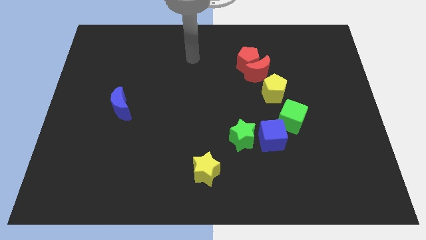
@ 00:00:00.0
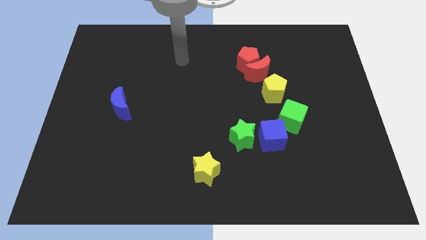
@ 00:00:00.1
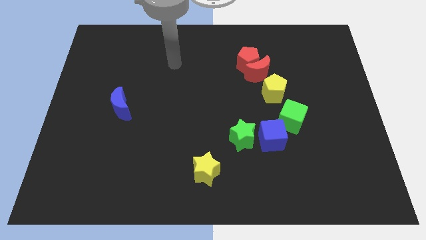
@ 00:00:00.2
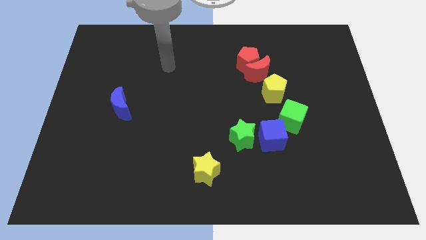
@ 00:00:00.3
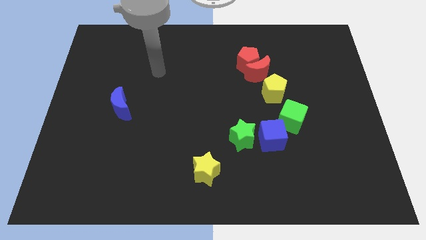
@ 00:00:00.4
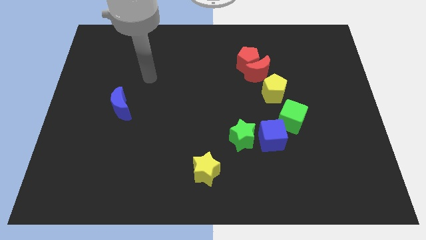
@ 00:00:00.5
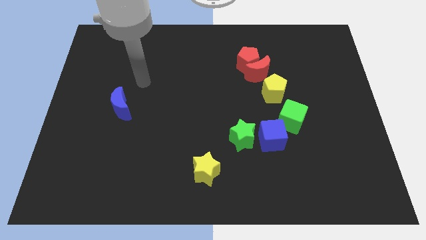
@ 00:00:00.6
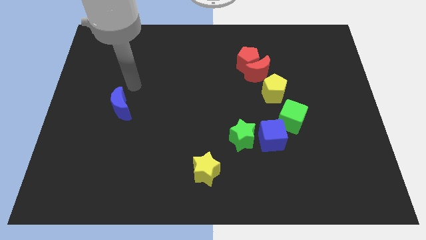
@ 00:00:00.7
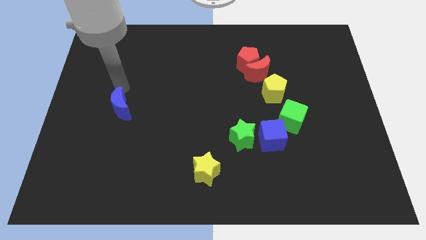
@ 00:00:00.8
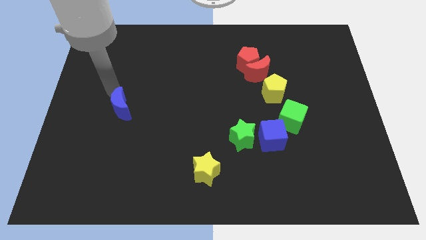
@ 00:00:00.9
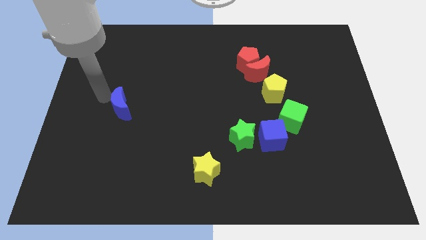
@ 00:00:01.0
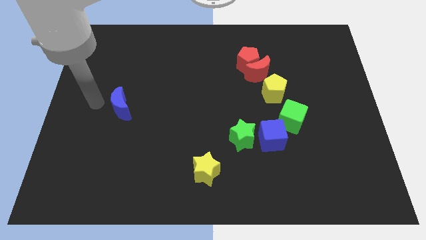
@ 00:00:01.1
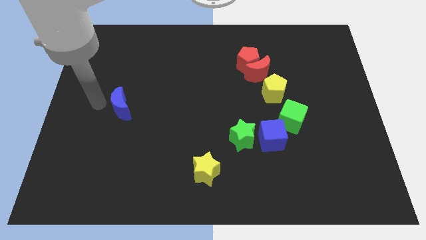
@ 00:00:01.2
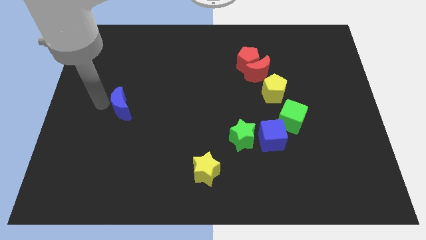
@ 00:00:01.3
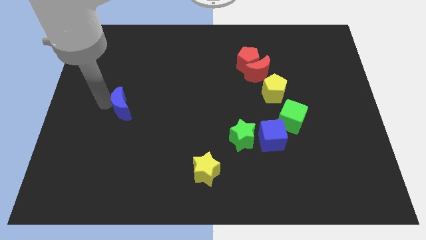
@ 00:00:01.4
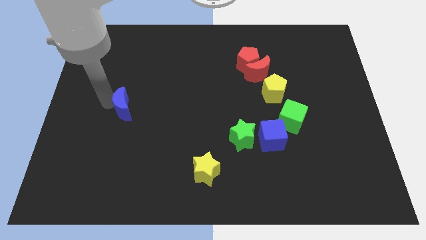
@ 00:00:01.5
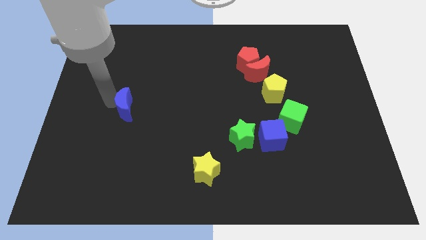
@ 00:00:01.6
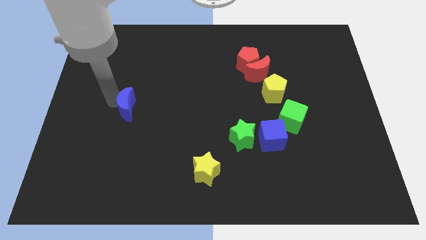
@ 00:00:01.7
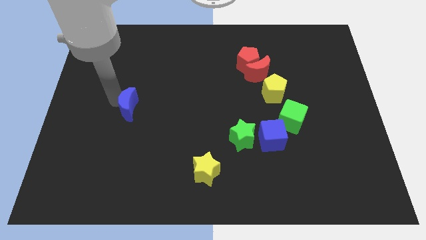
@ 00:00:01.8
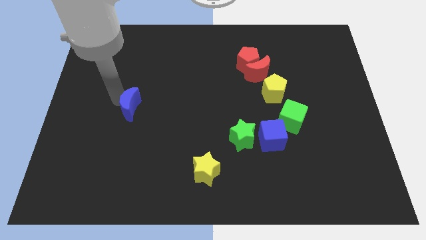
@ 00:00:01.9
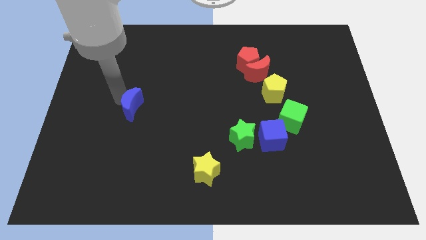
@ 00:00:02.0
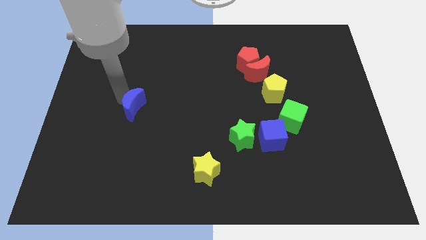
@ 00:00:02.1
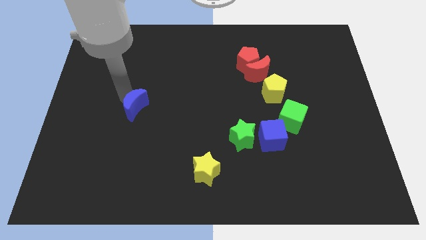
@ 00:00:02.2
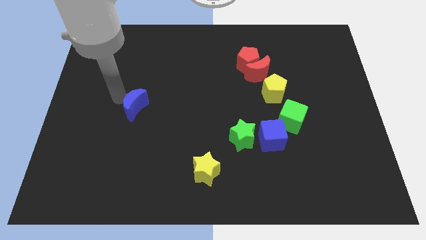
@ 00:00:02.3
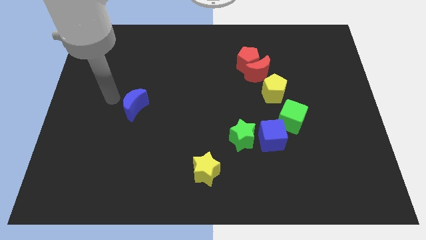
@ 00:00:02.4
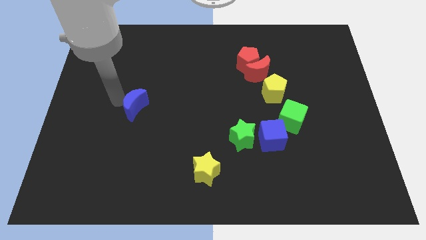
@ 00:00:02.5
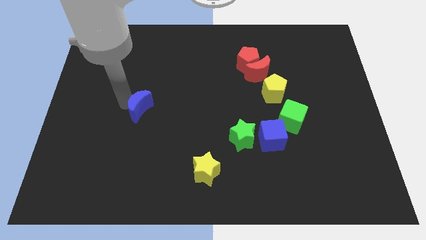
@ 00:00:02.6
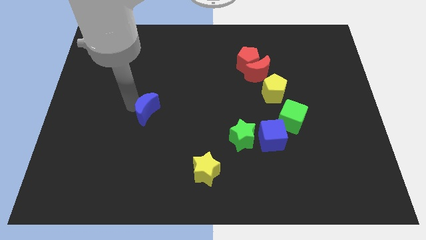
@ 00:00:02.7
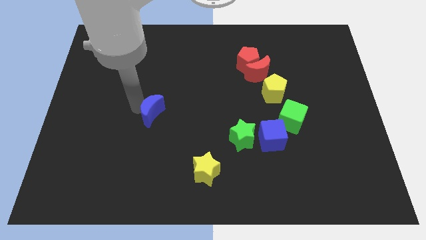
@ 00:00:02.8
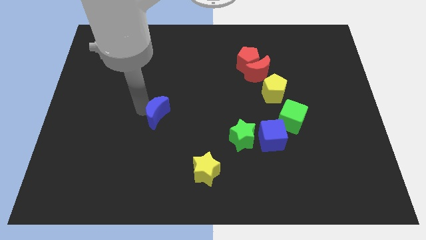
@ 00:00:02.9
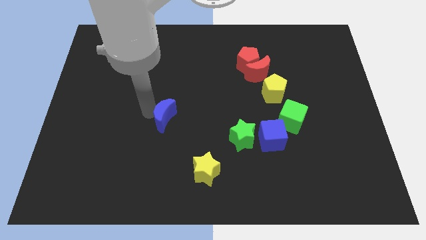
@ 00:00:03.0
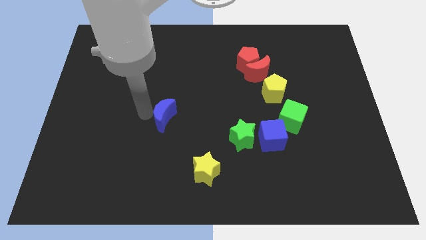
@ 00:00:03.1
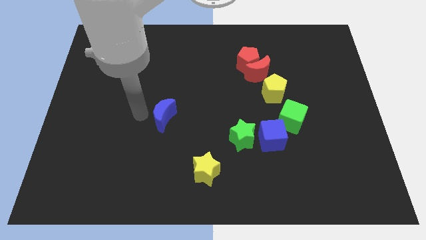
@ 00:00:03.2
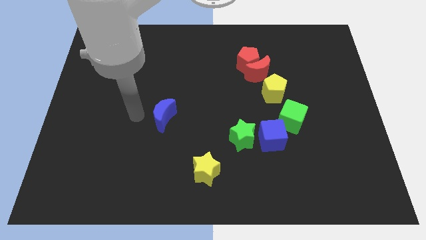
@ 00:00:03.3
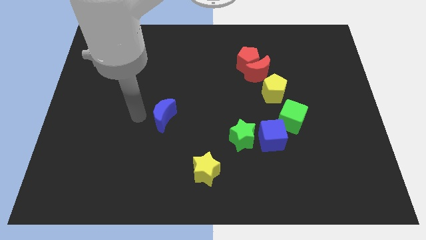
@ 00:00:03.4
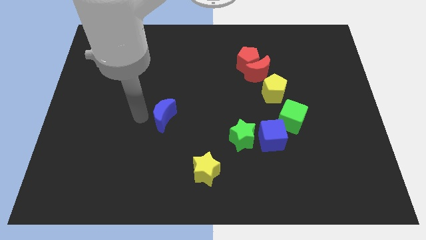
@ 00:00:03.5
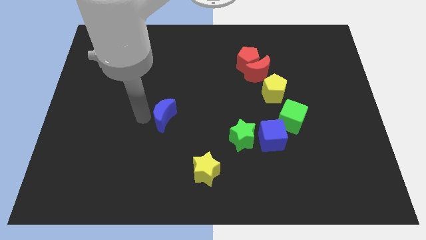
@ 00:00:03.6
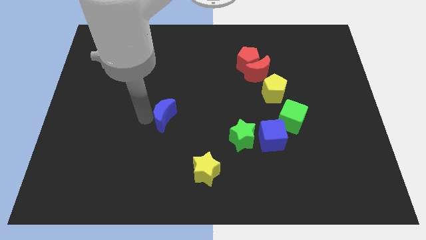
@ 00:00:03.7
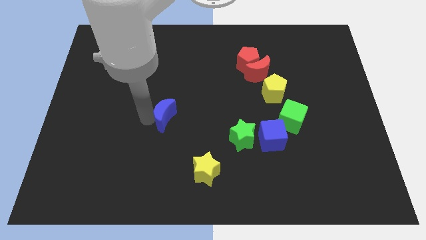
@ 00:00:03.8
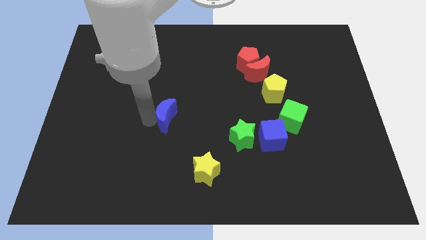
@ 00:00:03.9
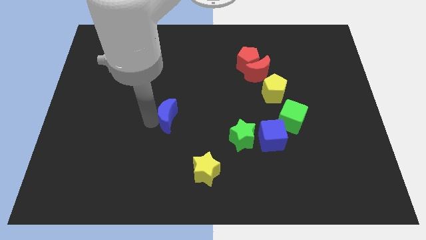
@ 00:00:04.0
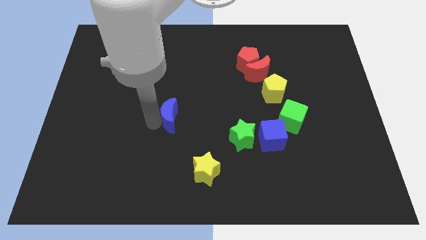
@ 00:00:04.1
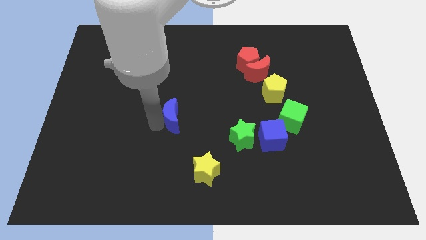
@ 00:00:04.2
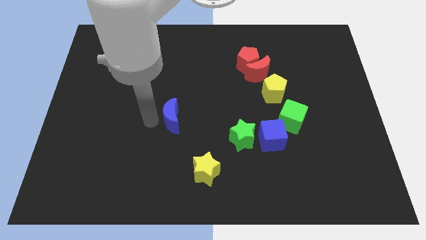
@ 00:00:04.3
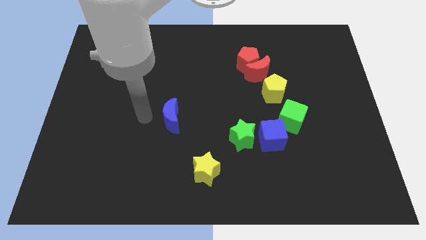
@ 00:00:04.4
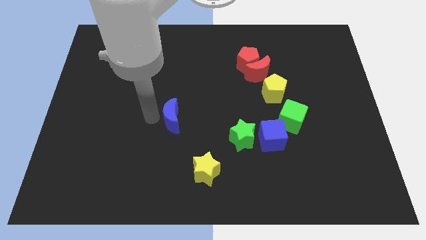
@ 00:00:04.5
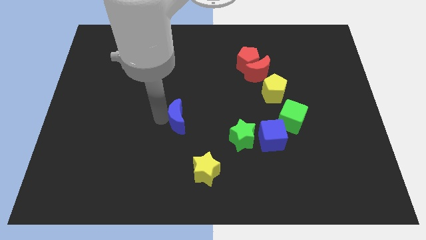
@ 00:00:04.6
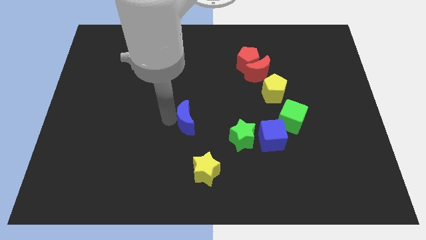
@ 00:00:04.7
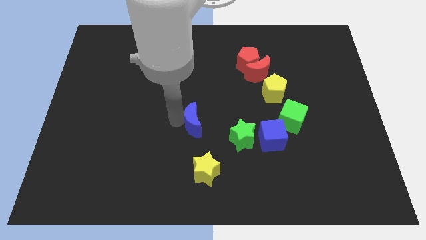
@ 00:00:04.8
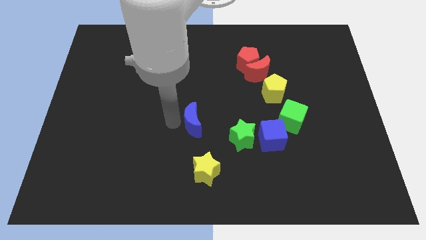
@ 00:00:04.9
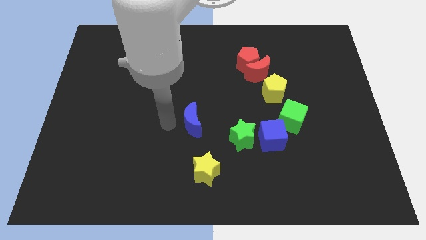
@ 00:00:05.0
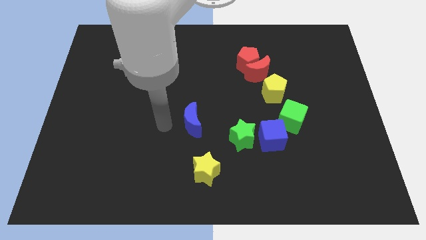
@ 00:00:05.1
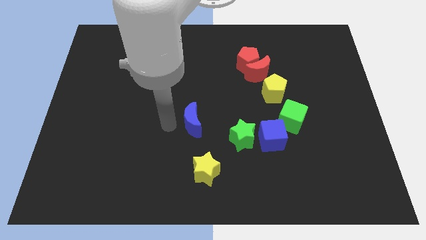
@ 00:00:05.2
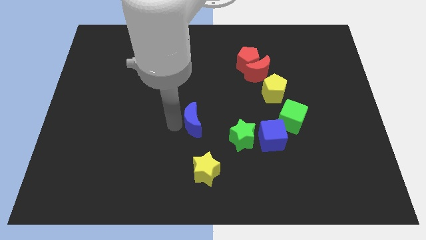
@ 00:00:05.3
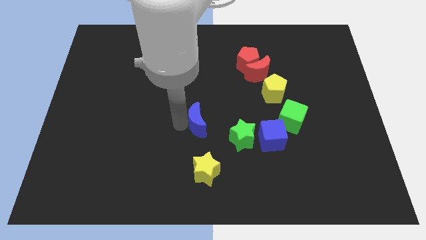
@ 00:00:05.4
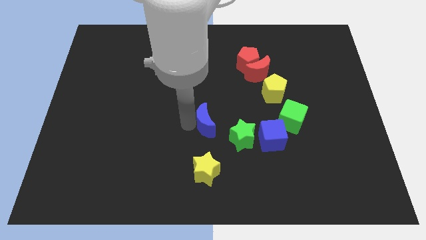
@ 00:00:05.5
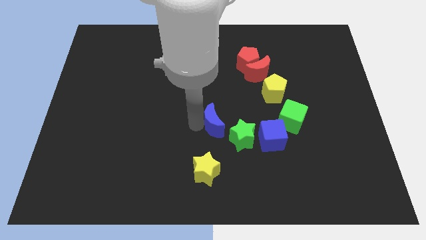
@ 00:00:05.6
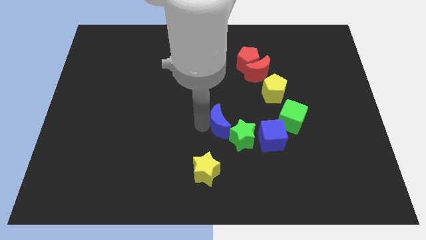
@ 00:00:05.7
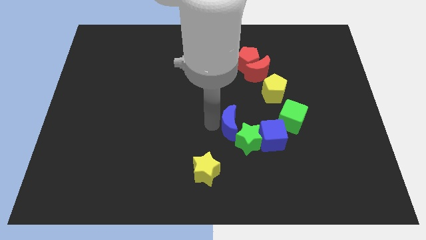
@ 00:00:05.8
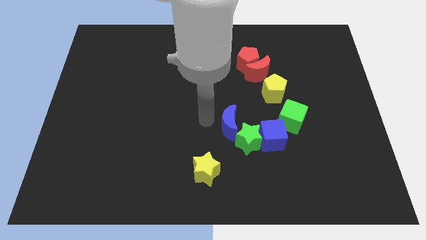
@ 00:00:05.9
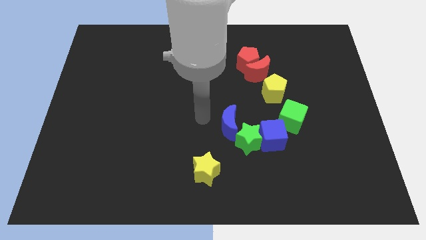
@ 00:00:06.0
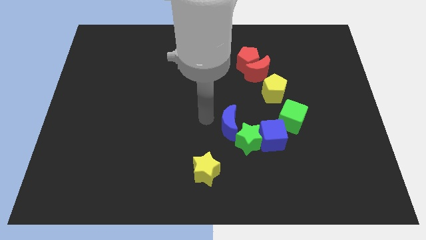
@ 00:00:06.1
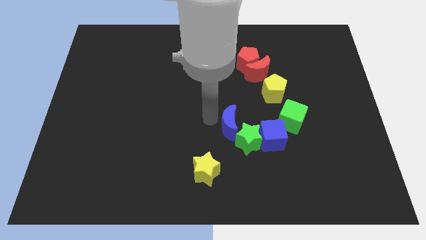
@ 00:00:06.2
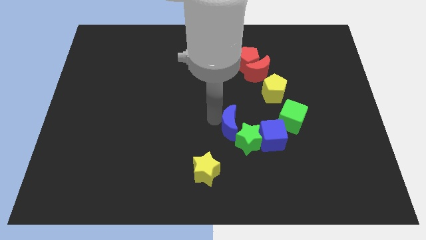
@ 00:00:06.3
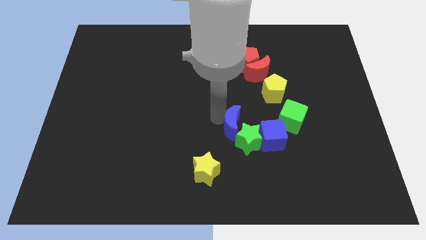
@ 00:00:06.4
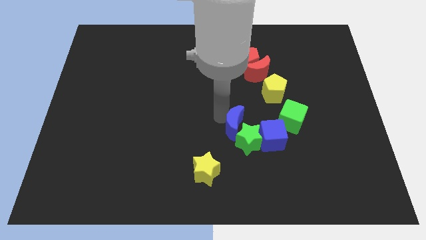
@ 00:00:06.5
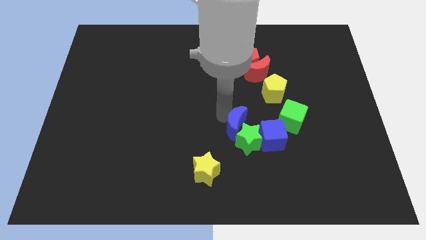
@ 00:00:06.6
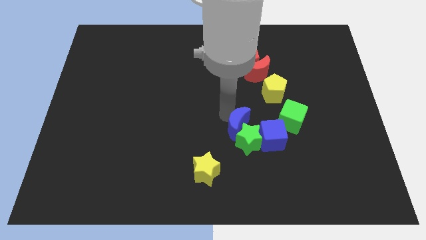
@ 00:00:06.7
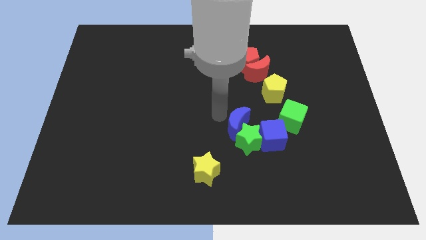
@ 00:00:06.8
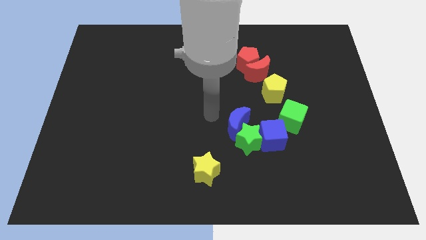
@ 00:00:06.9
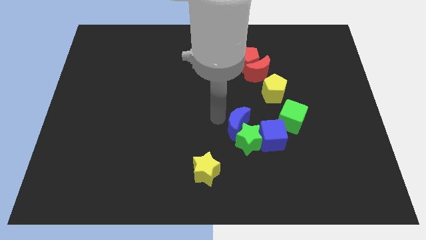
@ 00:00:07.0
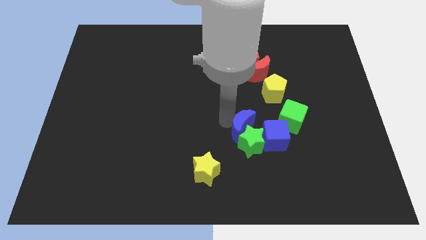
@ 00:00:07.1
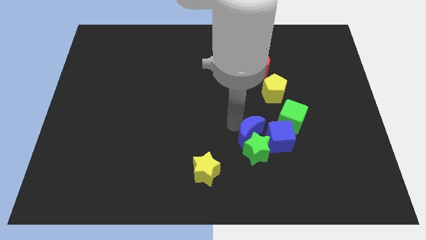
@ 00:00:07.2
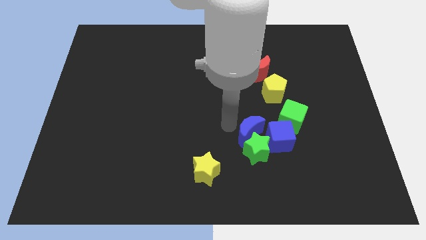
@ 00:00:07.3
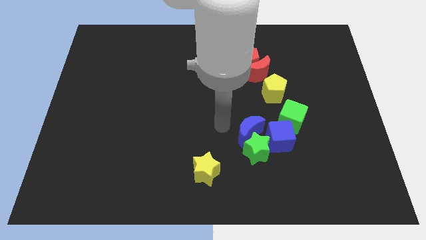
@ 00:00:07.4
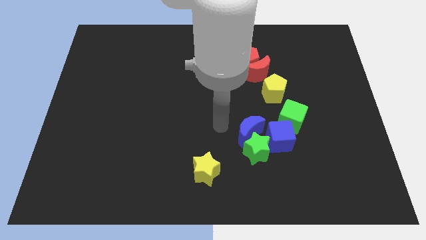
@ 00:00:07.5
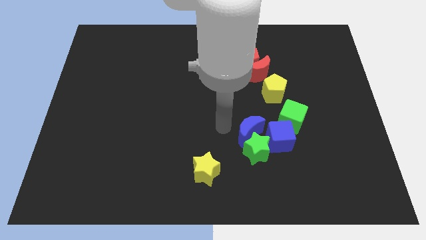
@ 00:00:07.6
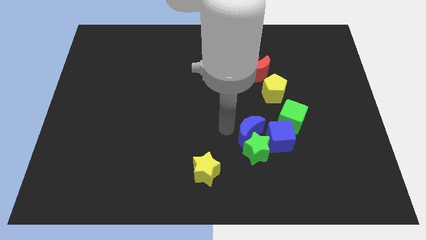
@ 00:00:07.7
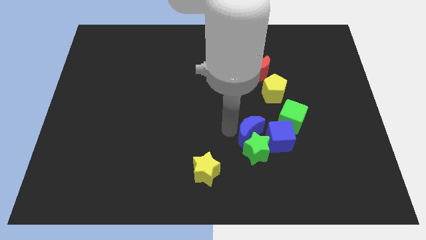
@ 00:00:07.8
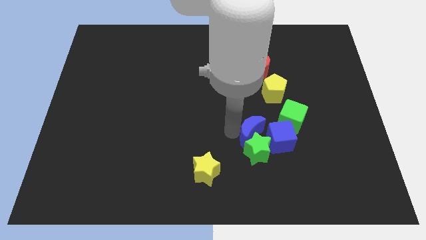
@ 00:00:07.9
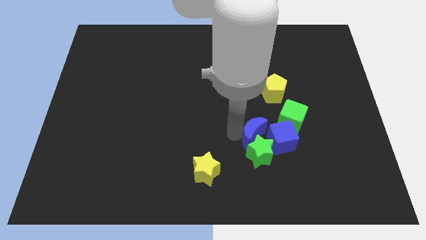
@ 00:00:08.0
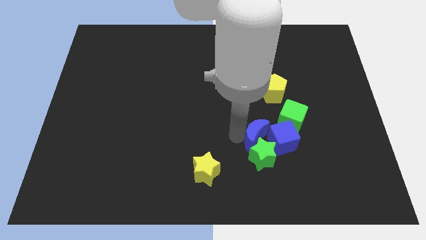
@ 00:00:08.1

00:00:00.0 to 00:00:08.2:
slide the blue moon close to the blue cube
